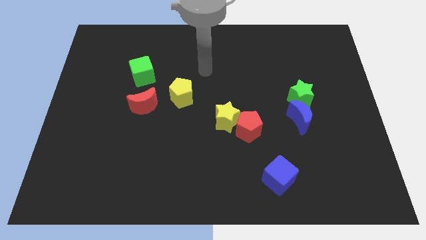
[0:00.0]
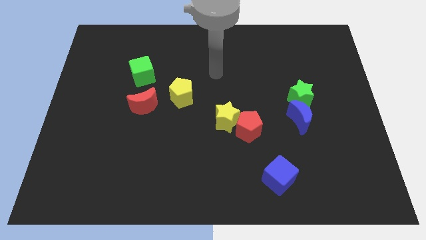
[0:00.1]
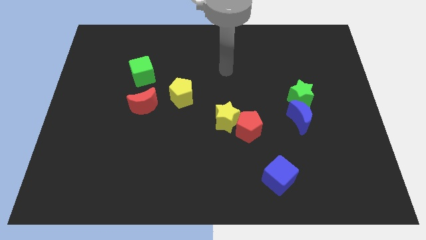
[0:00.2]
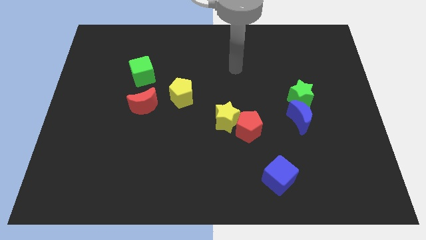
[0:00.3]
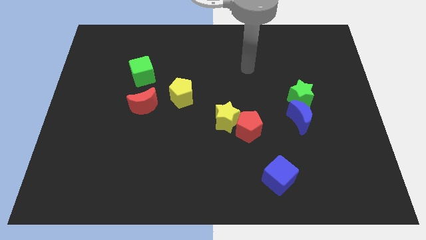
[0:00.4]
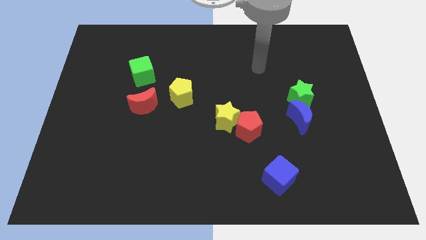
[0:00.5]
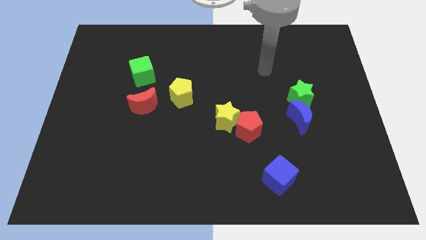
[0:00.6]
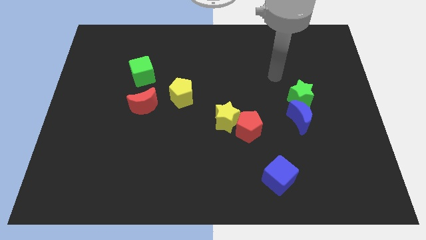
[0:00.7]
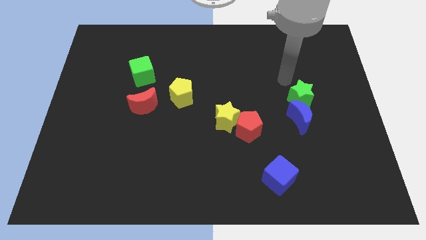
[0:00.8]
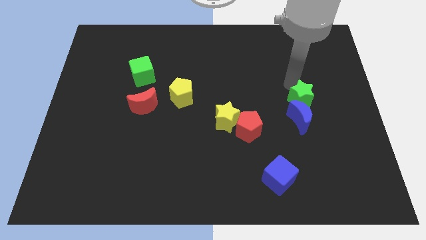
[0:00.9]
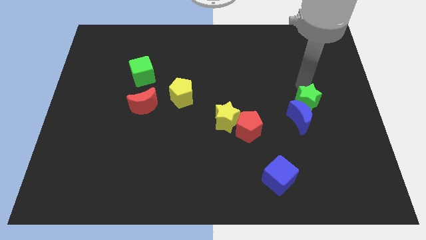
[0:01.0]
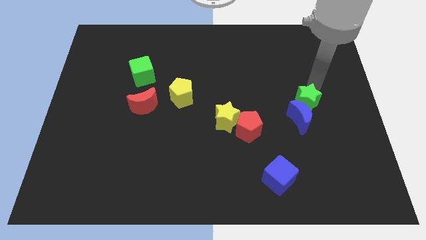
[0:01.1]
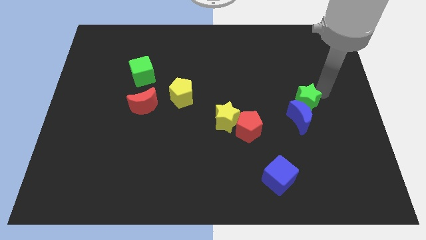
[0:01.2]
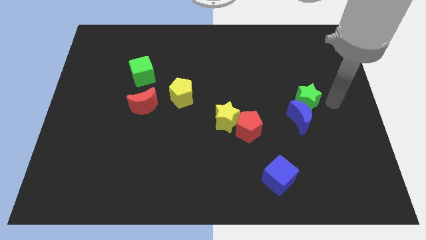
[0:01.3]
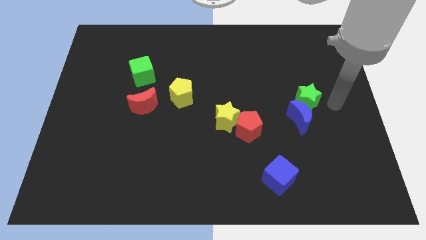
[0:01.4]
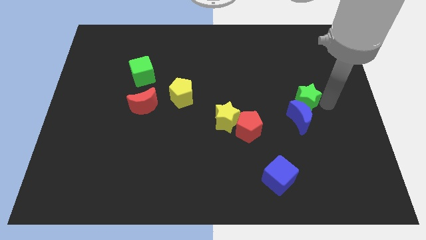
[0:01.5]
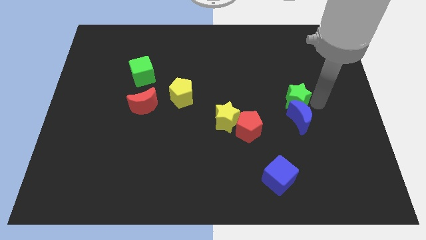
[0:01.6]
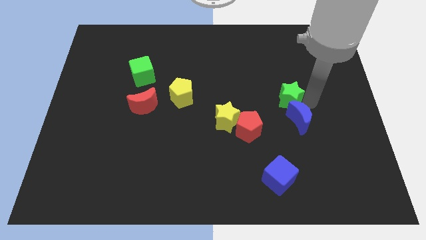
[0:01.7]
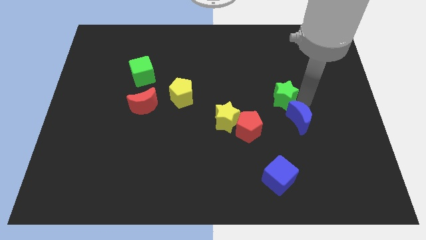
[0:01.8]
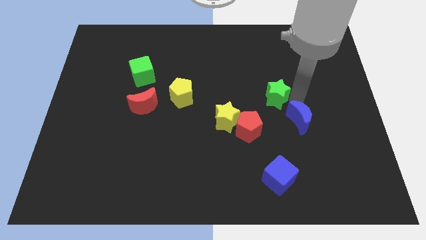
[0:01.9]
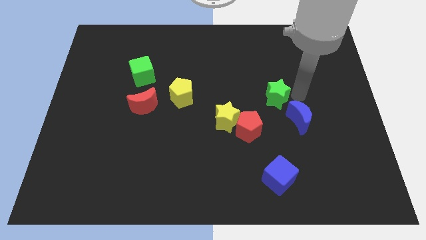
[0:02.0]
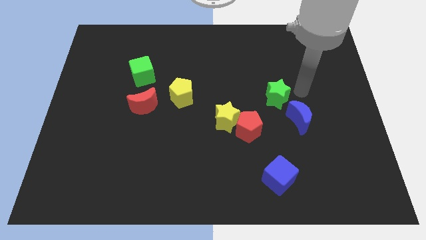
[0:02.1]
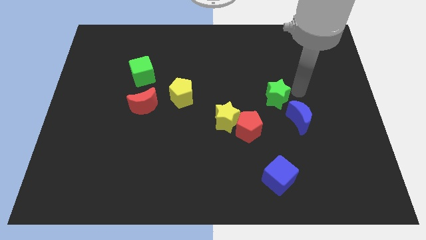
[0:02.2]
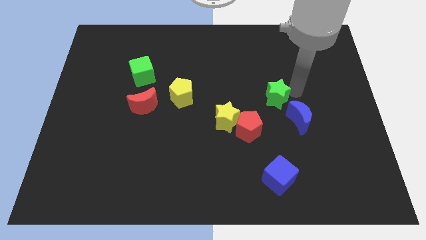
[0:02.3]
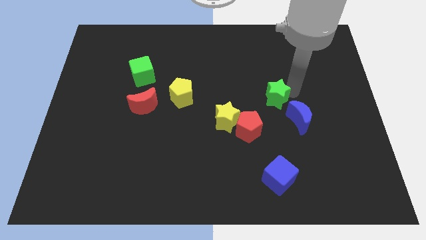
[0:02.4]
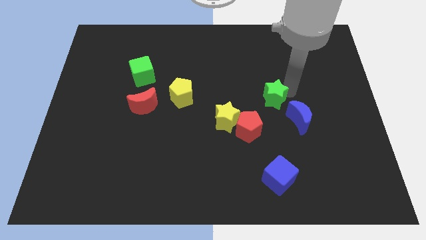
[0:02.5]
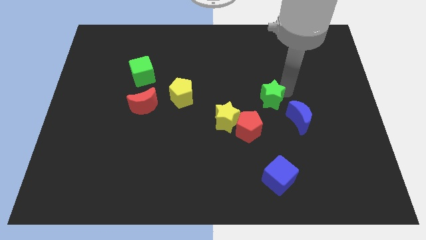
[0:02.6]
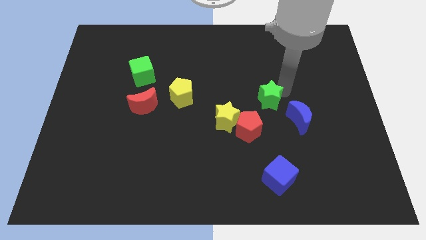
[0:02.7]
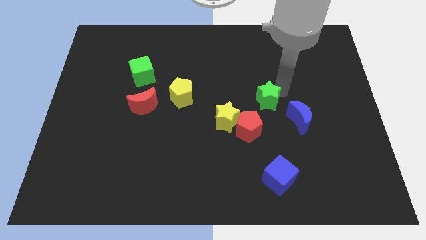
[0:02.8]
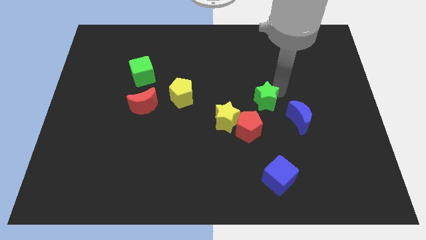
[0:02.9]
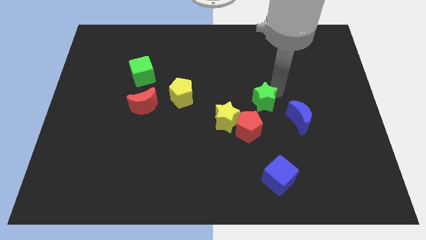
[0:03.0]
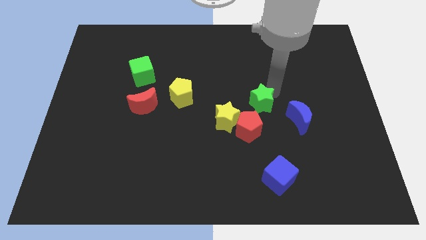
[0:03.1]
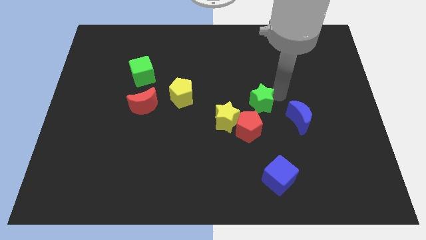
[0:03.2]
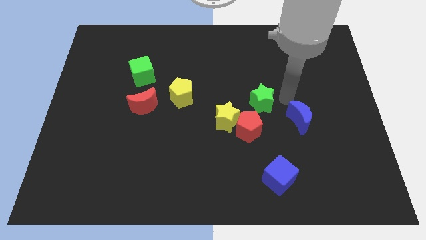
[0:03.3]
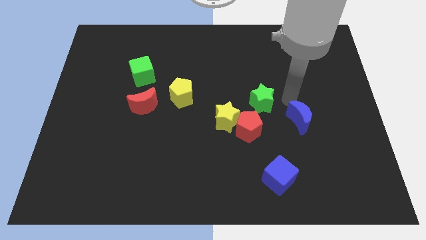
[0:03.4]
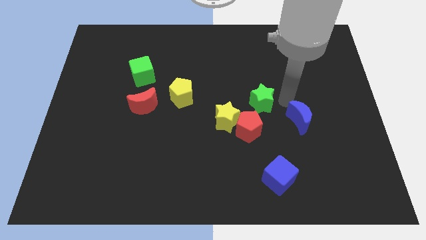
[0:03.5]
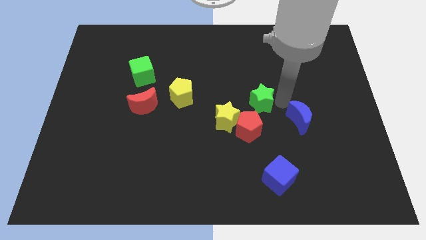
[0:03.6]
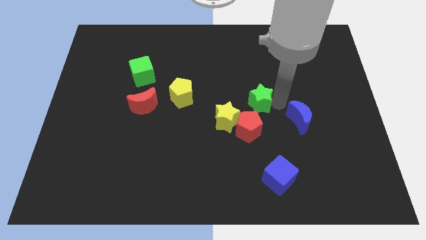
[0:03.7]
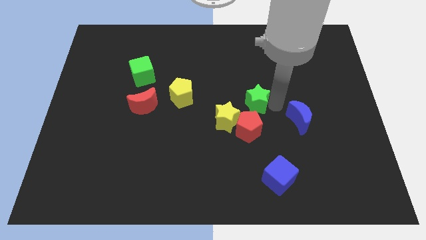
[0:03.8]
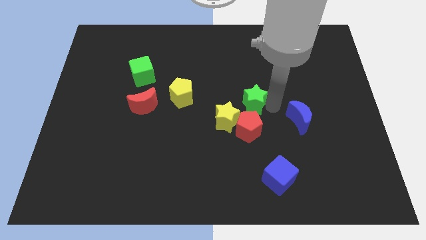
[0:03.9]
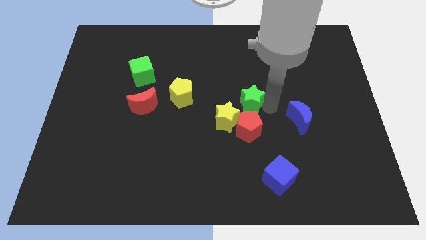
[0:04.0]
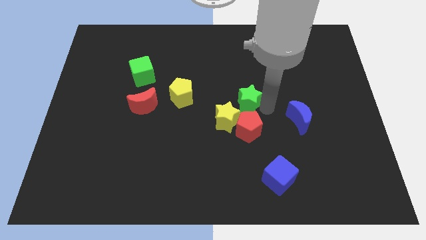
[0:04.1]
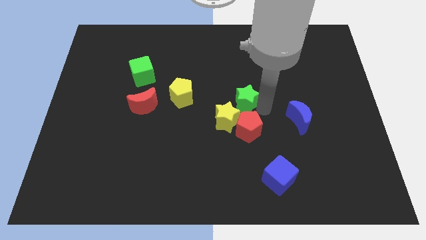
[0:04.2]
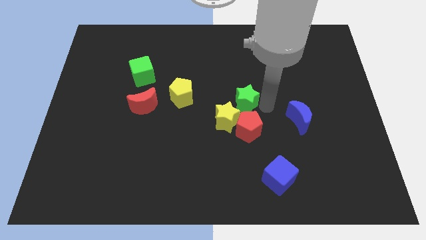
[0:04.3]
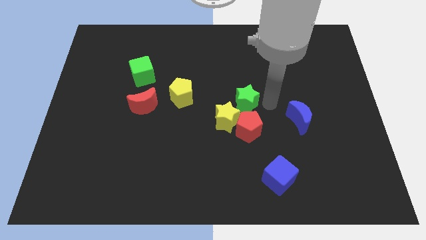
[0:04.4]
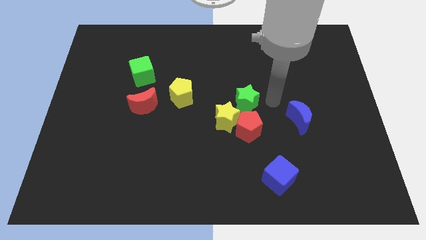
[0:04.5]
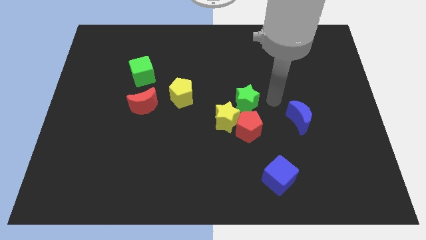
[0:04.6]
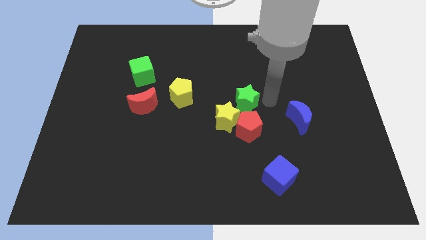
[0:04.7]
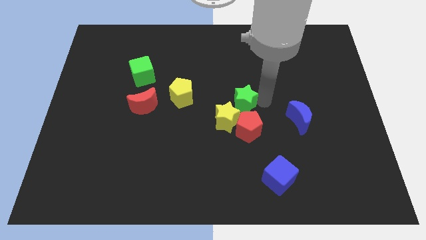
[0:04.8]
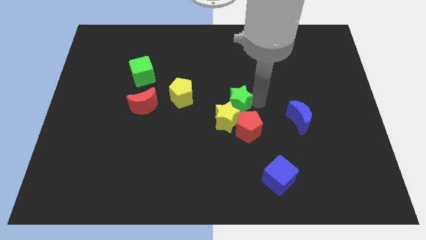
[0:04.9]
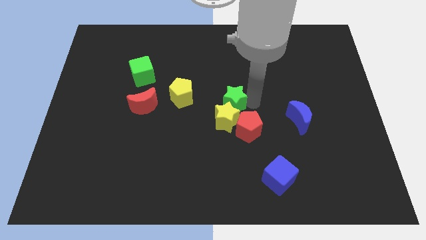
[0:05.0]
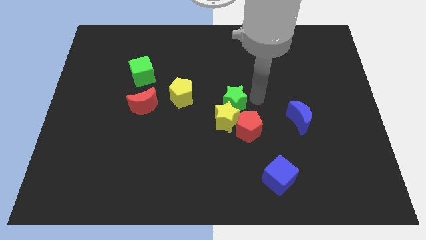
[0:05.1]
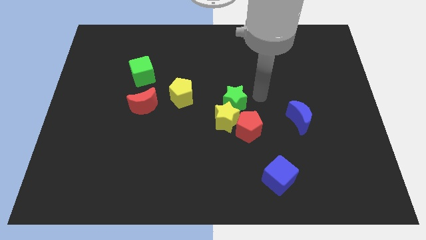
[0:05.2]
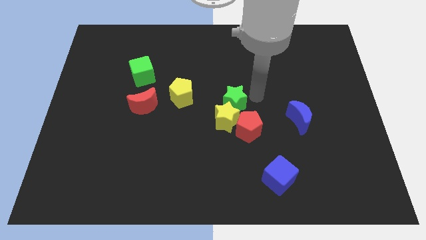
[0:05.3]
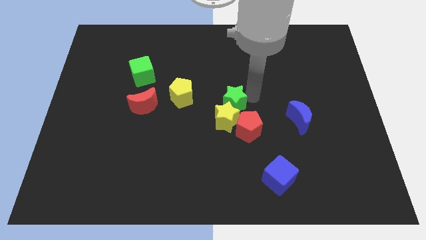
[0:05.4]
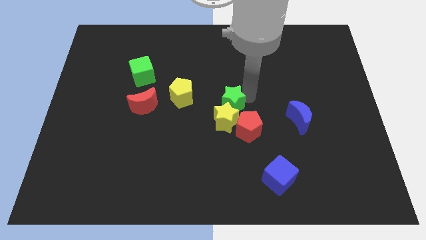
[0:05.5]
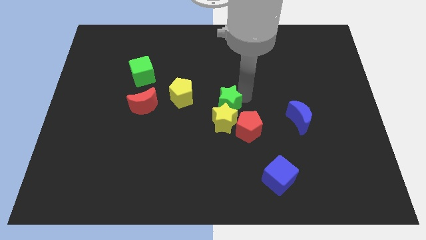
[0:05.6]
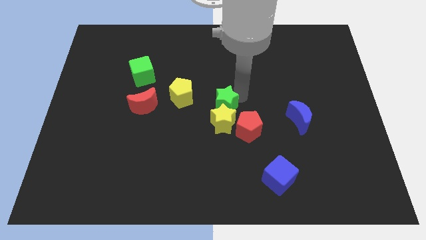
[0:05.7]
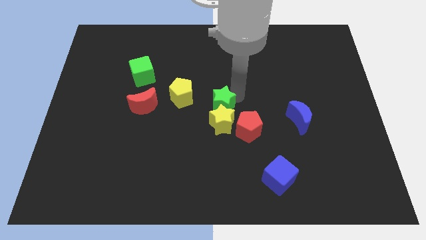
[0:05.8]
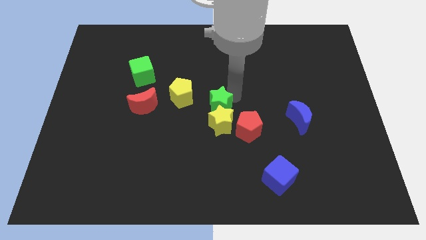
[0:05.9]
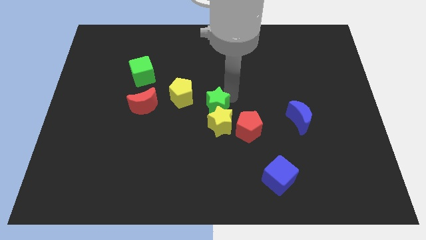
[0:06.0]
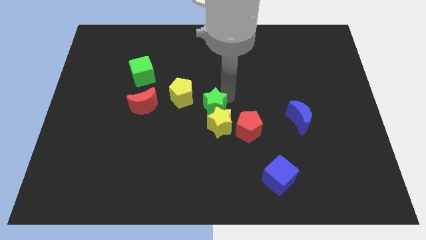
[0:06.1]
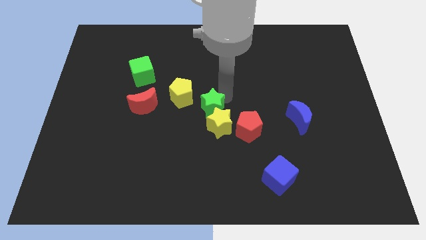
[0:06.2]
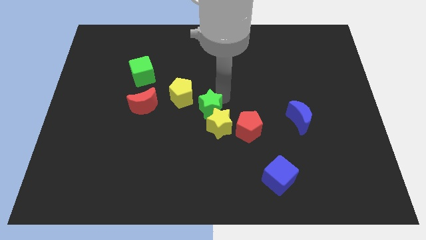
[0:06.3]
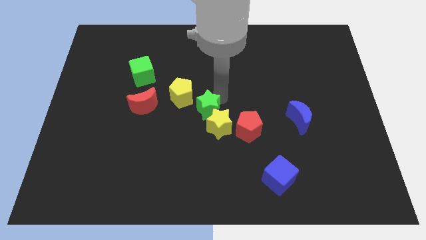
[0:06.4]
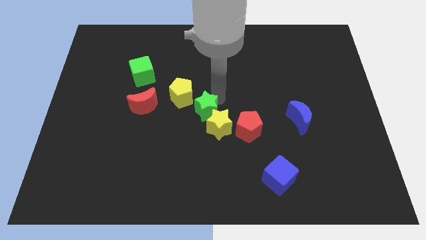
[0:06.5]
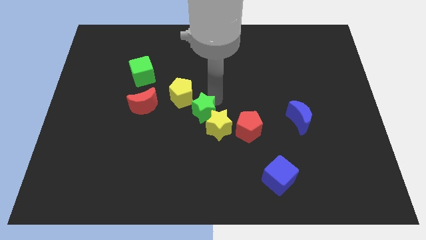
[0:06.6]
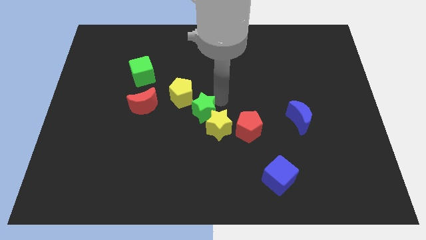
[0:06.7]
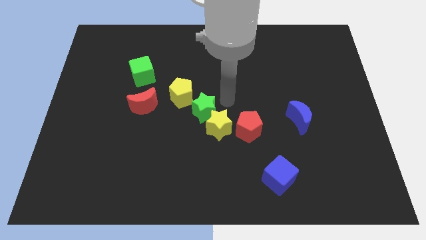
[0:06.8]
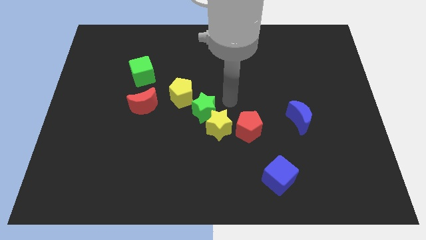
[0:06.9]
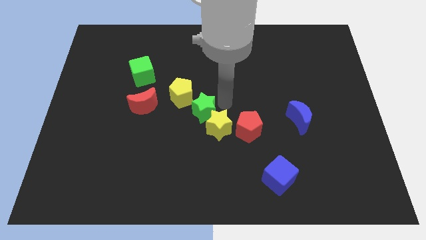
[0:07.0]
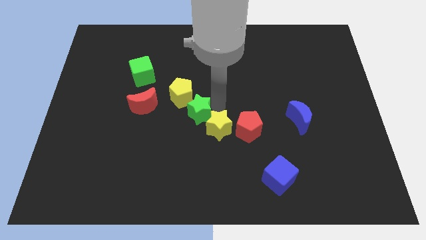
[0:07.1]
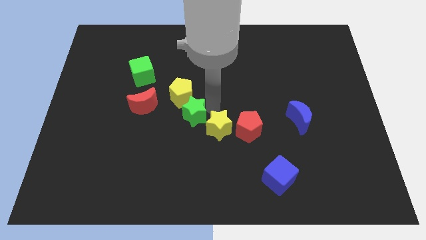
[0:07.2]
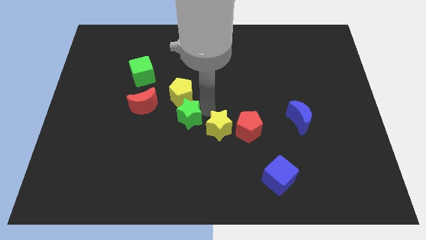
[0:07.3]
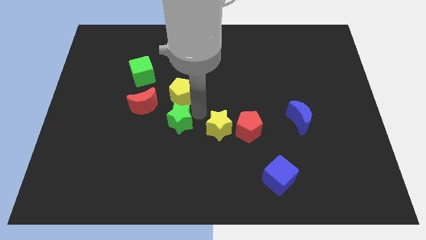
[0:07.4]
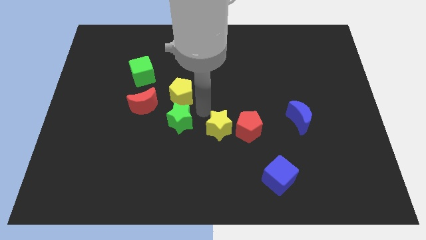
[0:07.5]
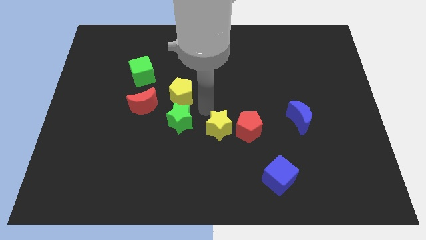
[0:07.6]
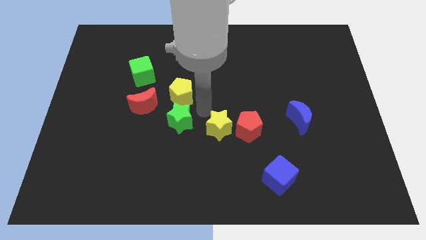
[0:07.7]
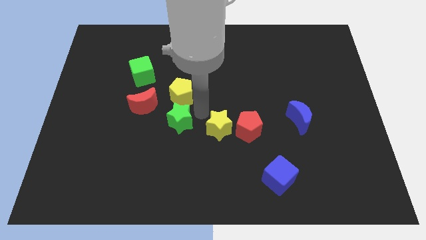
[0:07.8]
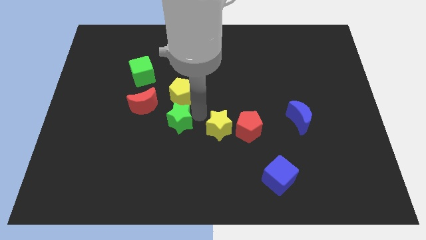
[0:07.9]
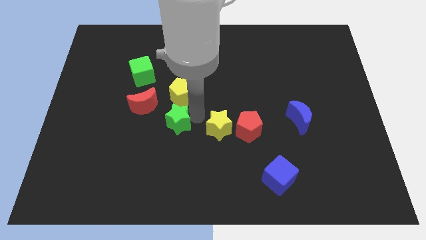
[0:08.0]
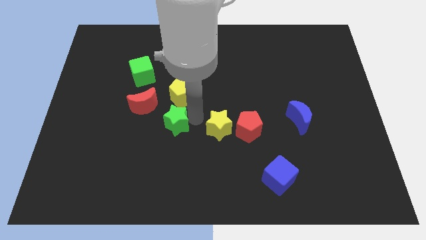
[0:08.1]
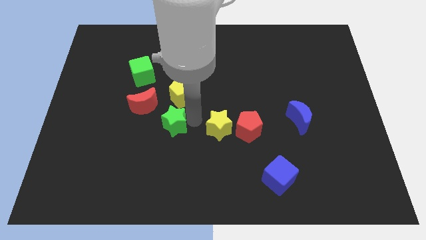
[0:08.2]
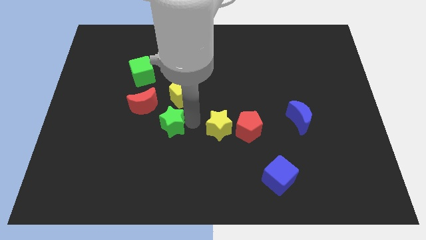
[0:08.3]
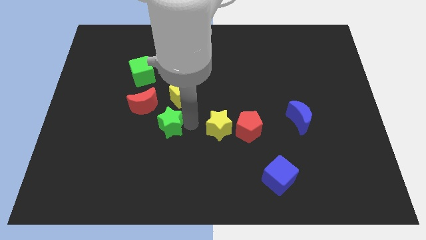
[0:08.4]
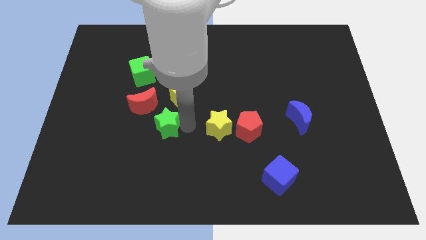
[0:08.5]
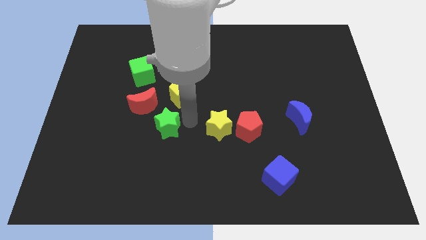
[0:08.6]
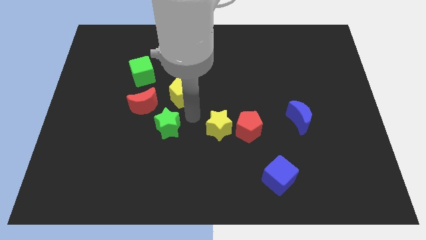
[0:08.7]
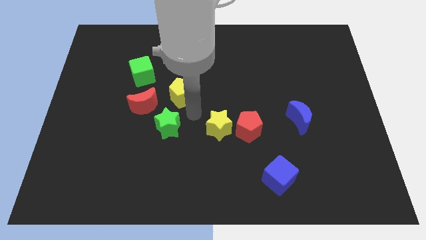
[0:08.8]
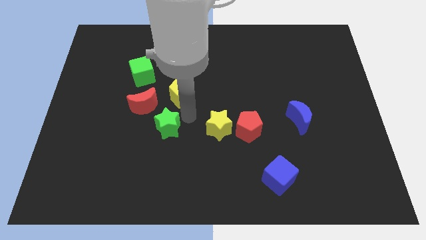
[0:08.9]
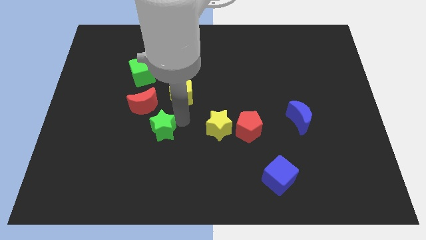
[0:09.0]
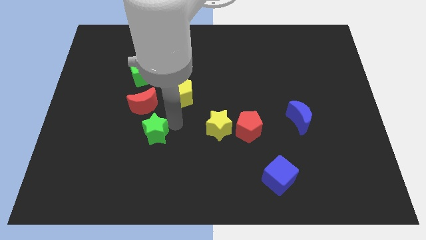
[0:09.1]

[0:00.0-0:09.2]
put the green star to the bottom of the red moon
